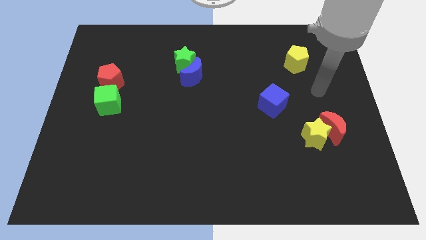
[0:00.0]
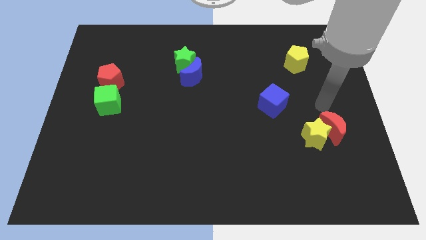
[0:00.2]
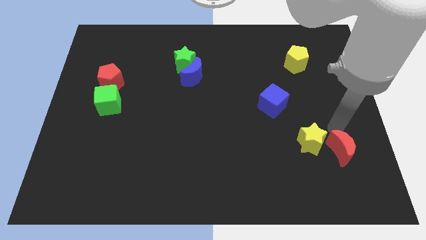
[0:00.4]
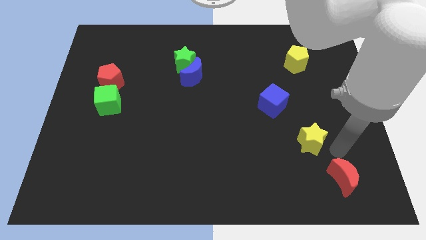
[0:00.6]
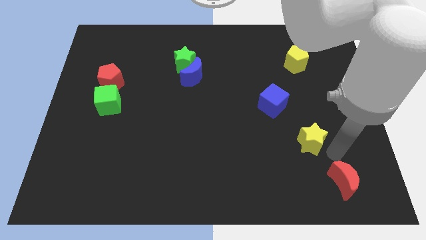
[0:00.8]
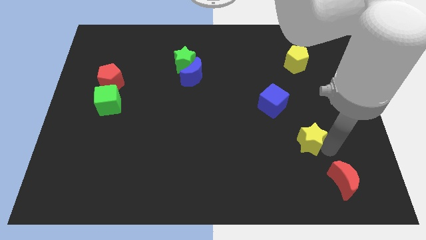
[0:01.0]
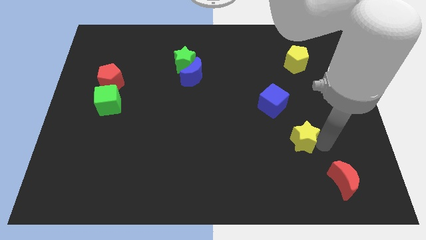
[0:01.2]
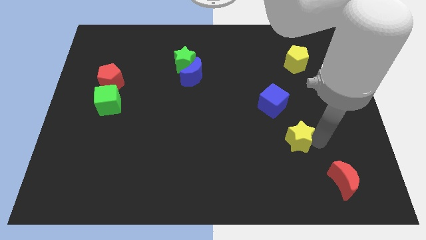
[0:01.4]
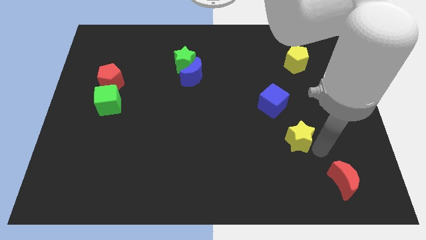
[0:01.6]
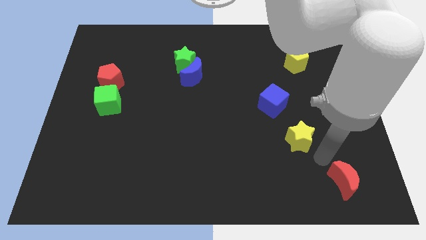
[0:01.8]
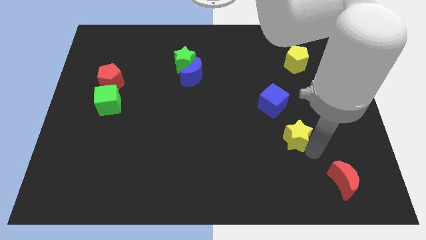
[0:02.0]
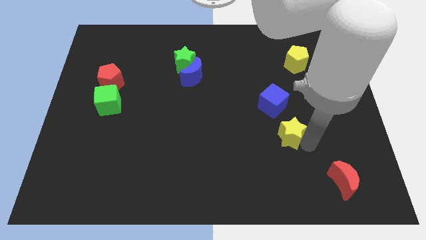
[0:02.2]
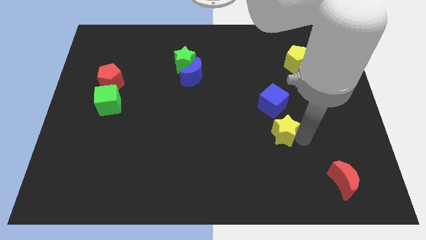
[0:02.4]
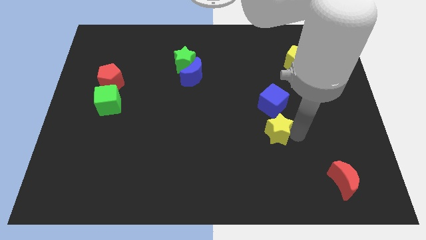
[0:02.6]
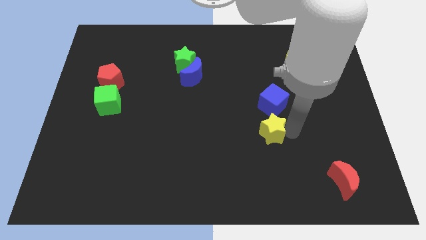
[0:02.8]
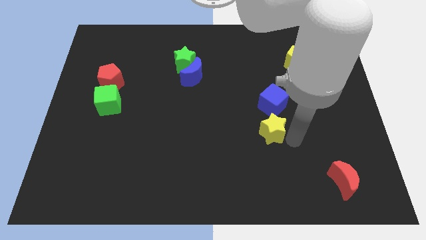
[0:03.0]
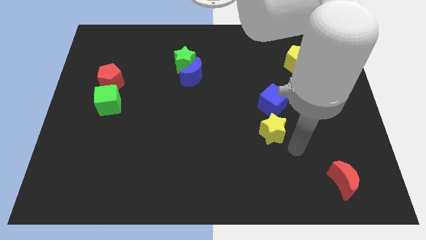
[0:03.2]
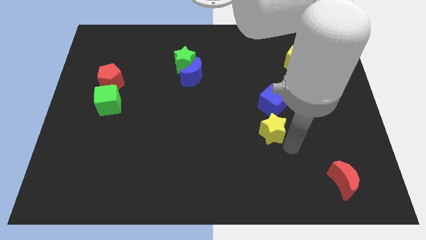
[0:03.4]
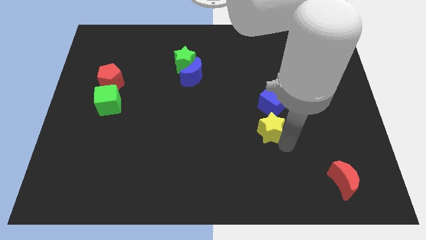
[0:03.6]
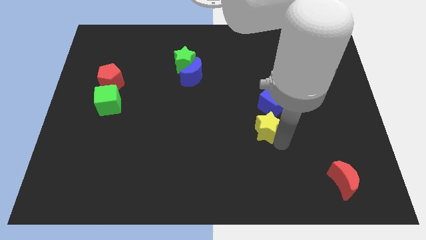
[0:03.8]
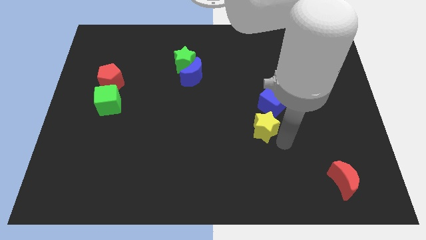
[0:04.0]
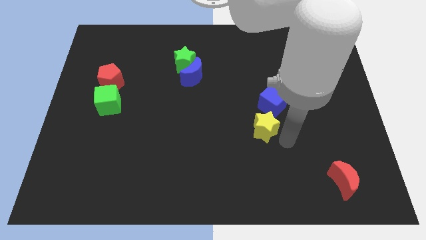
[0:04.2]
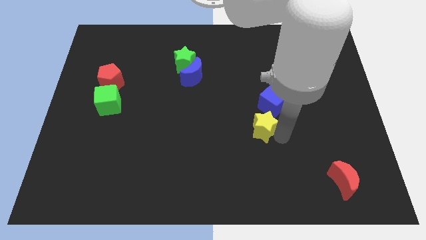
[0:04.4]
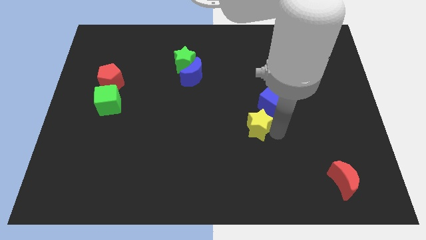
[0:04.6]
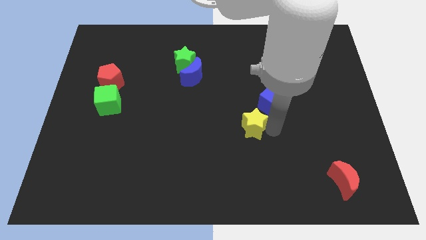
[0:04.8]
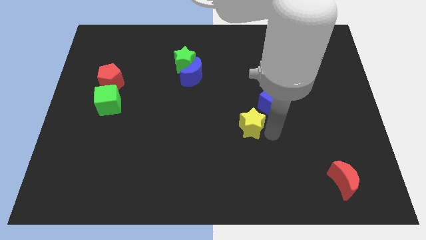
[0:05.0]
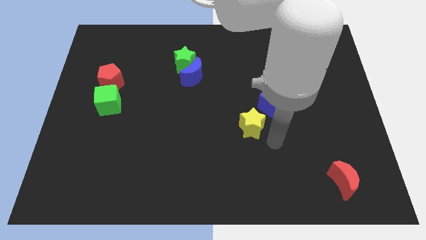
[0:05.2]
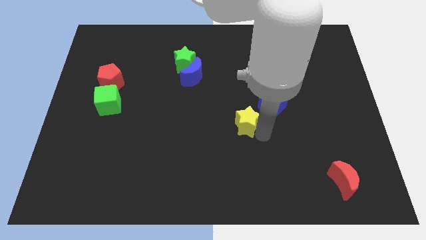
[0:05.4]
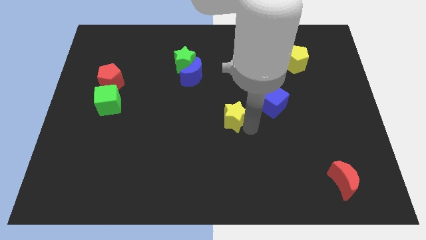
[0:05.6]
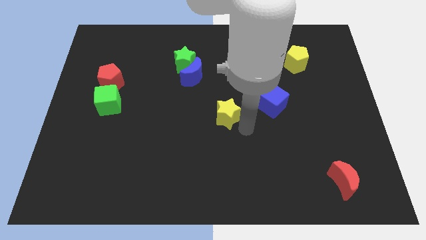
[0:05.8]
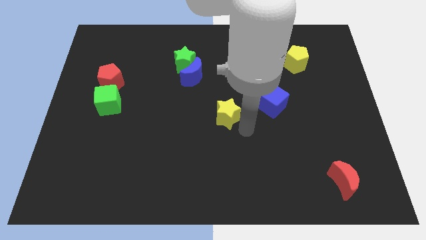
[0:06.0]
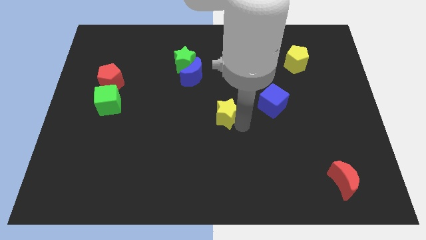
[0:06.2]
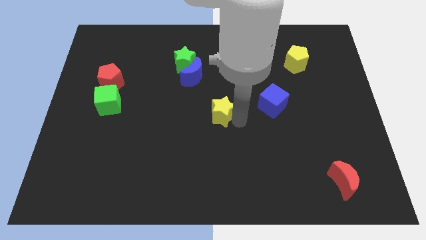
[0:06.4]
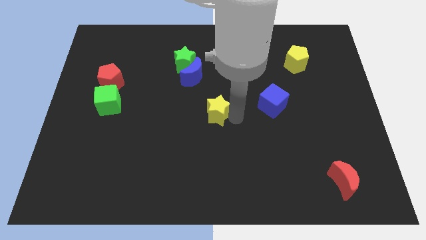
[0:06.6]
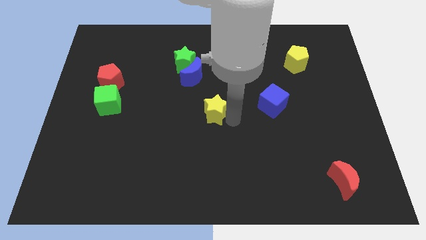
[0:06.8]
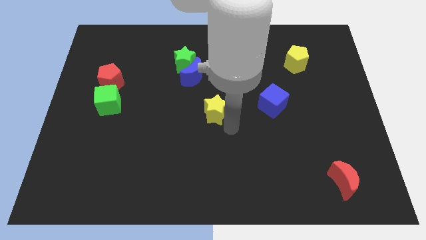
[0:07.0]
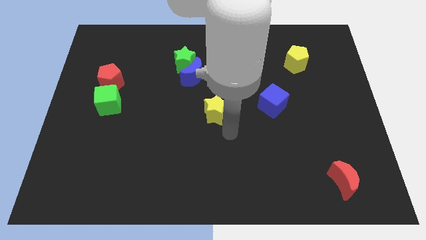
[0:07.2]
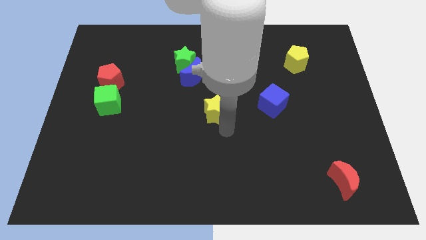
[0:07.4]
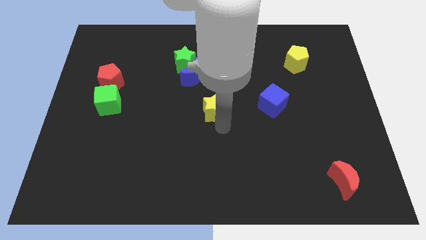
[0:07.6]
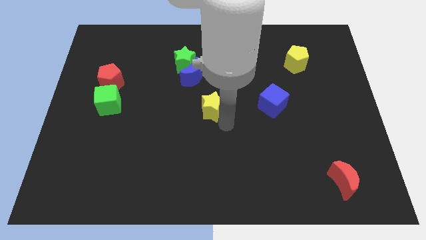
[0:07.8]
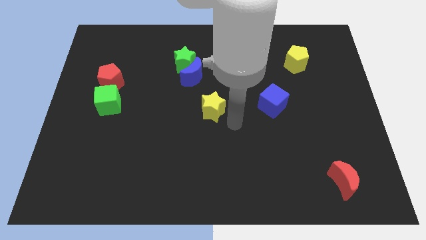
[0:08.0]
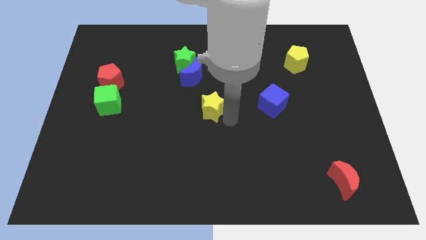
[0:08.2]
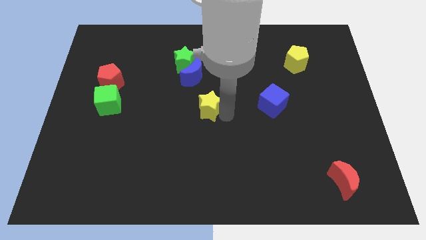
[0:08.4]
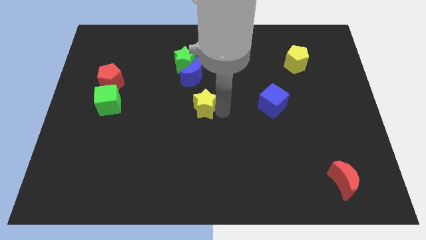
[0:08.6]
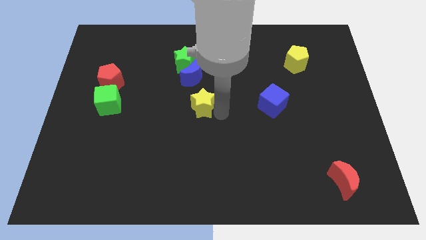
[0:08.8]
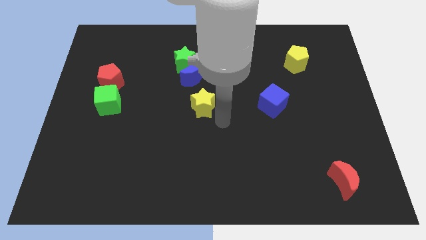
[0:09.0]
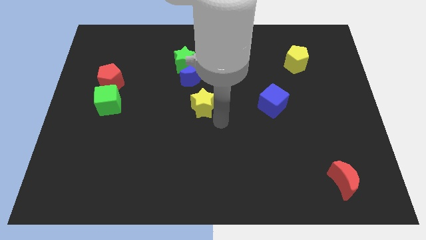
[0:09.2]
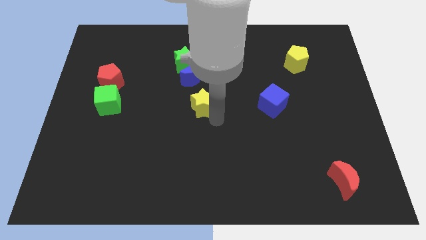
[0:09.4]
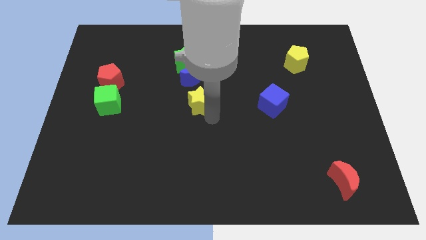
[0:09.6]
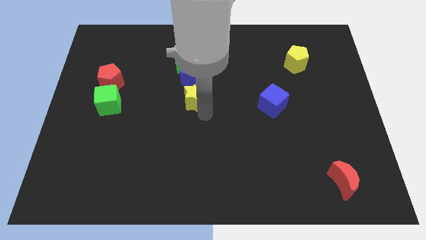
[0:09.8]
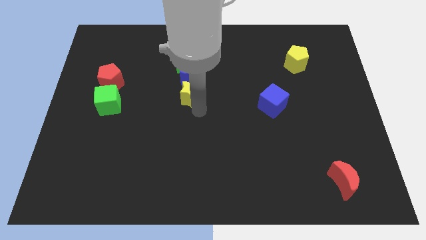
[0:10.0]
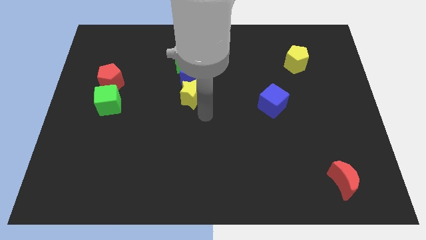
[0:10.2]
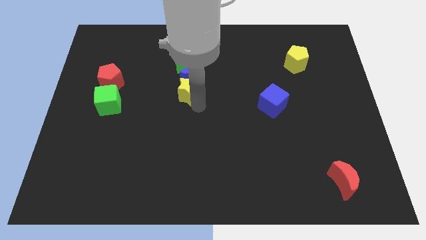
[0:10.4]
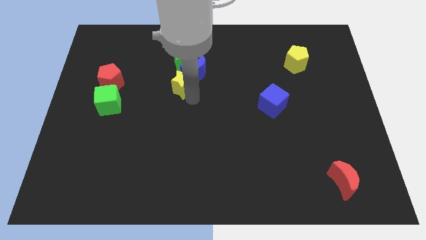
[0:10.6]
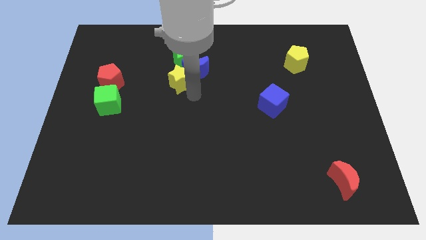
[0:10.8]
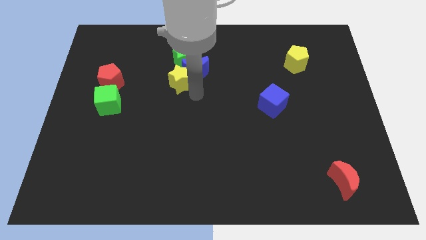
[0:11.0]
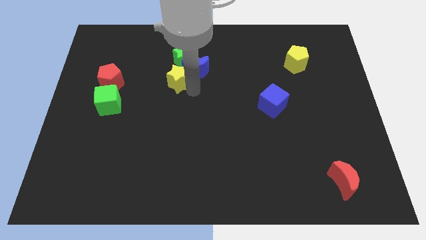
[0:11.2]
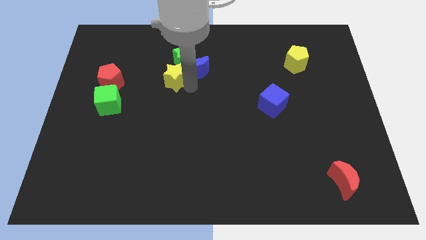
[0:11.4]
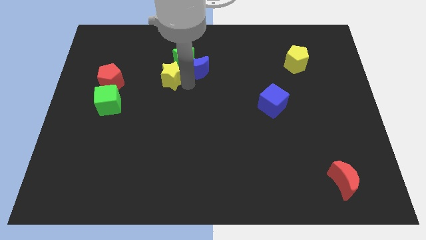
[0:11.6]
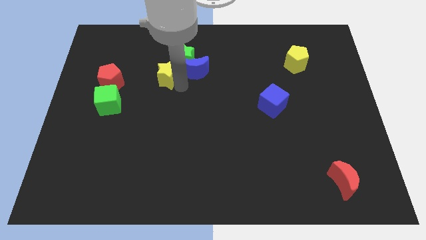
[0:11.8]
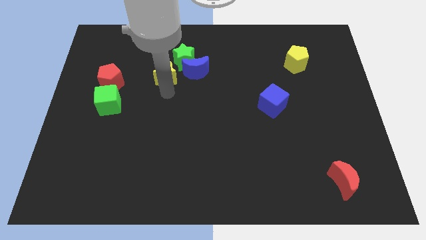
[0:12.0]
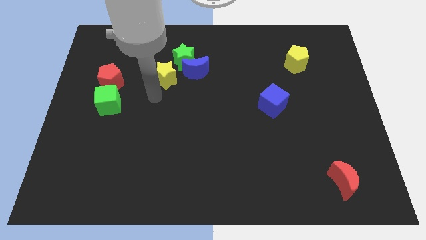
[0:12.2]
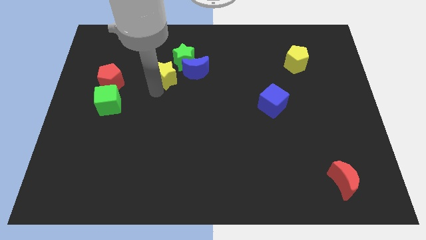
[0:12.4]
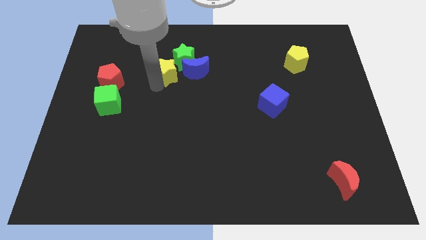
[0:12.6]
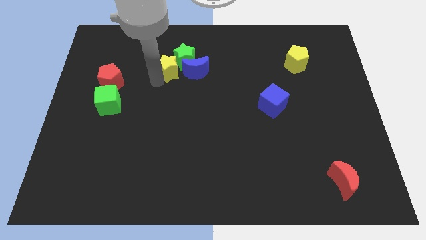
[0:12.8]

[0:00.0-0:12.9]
push the yellow star to the top left side of the blue moon

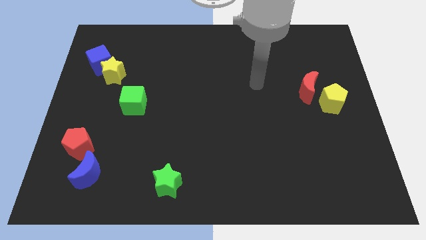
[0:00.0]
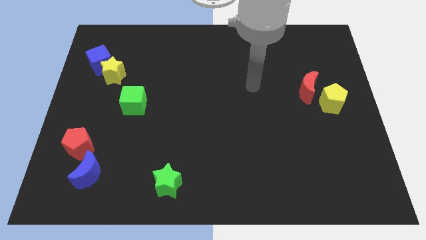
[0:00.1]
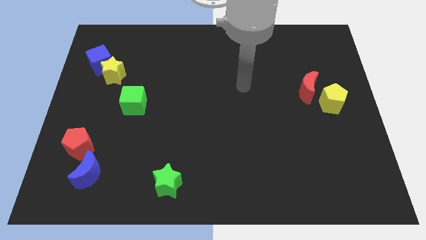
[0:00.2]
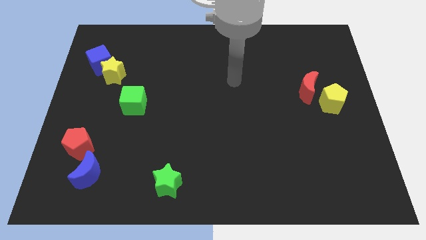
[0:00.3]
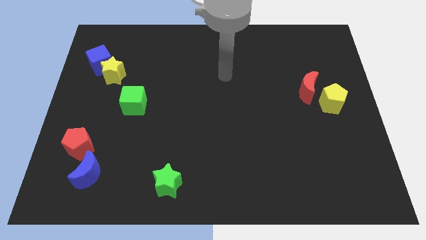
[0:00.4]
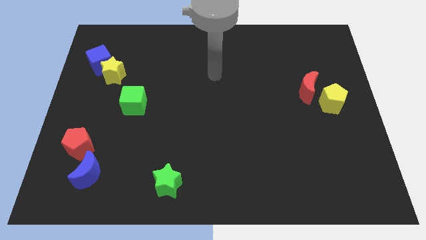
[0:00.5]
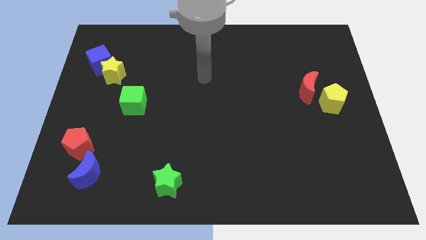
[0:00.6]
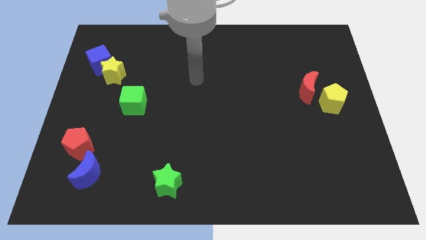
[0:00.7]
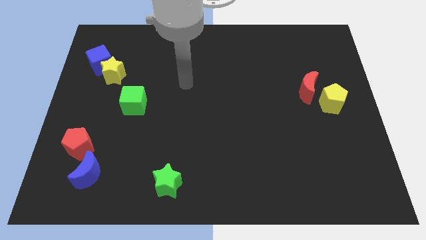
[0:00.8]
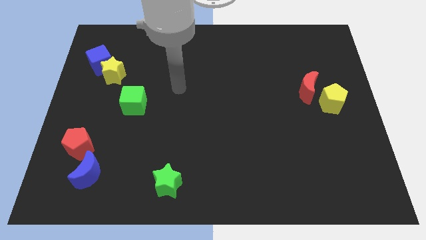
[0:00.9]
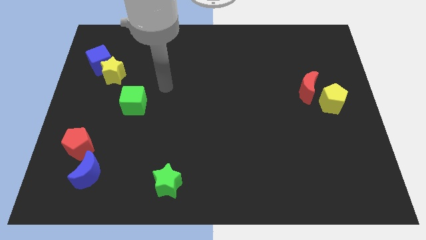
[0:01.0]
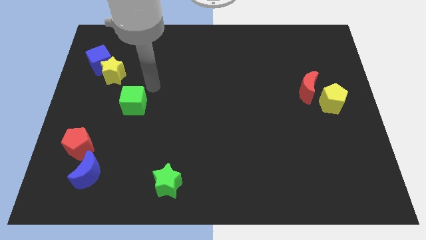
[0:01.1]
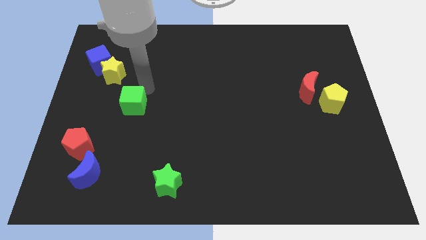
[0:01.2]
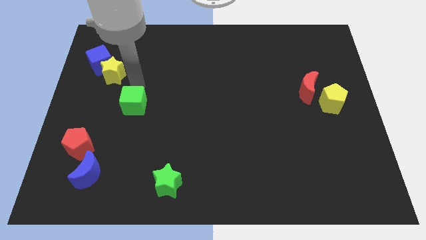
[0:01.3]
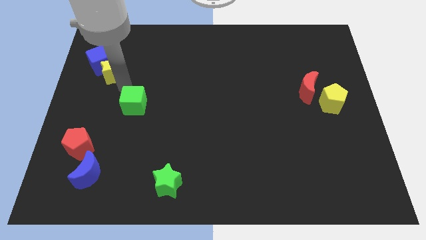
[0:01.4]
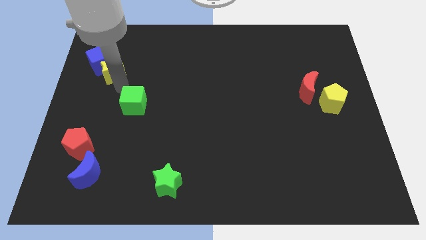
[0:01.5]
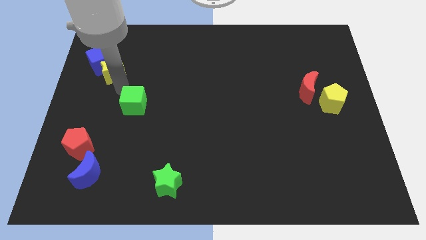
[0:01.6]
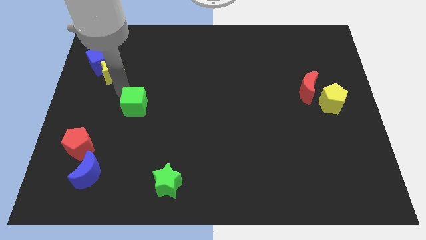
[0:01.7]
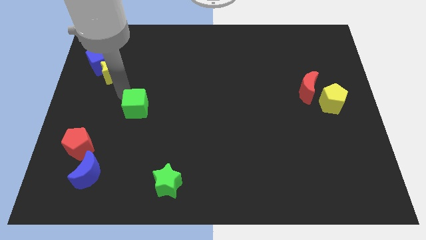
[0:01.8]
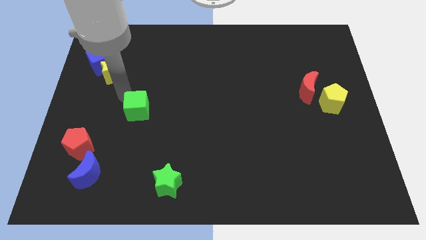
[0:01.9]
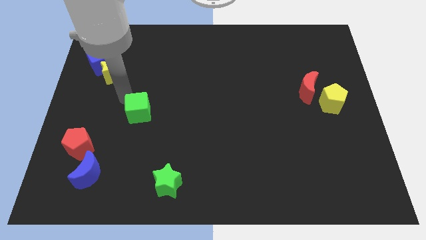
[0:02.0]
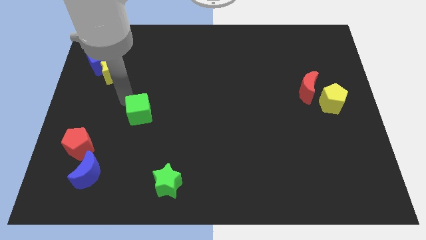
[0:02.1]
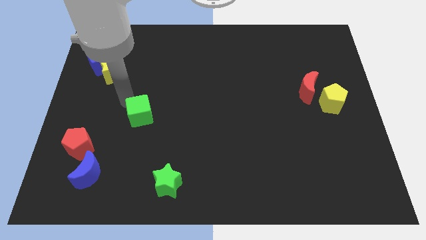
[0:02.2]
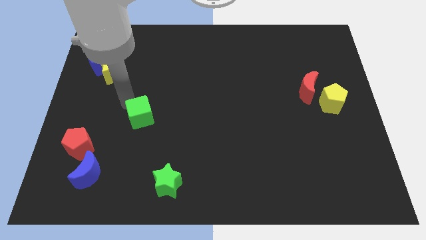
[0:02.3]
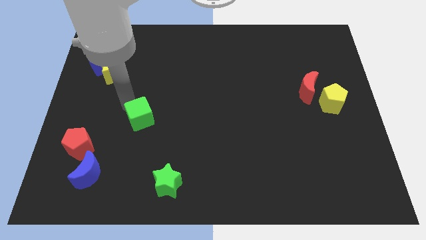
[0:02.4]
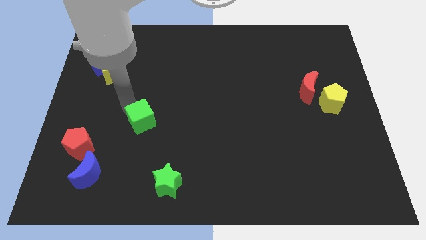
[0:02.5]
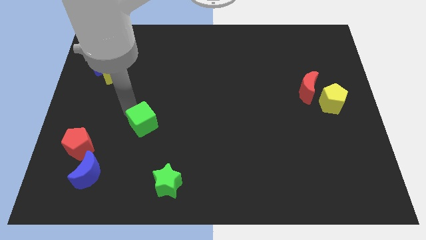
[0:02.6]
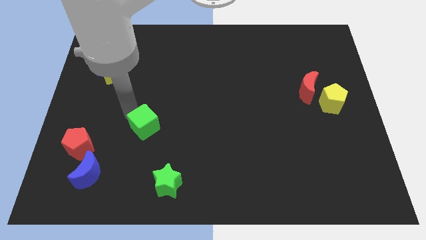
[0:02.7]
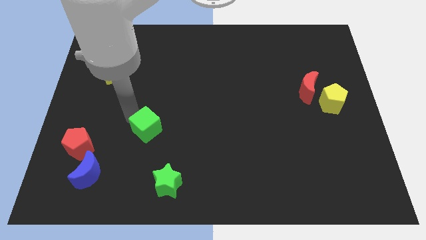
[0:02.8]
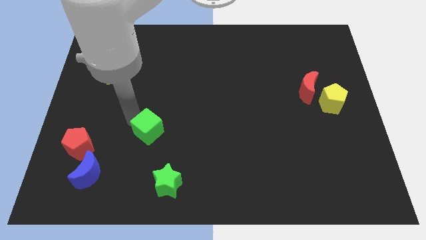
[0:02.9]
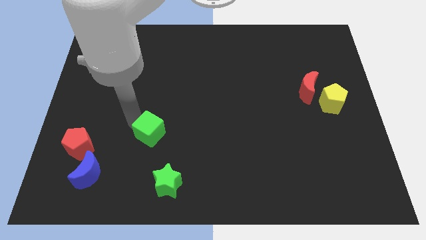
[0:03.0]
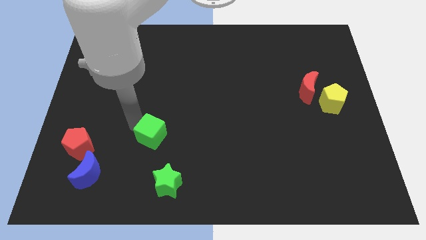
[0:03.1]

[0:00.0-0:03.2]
move the green cube to the top of the green star
